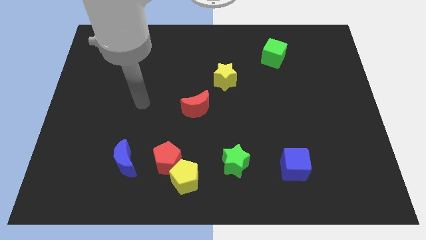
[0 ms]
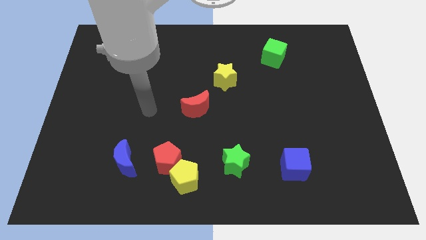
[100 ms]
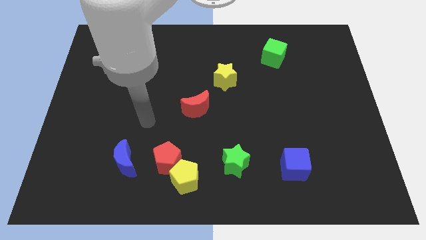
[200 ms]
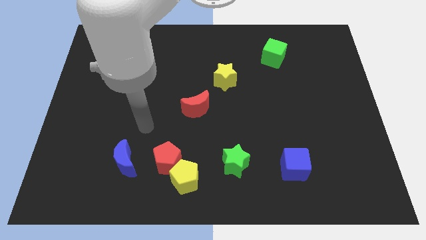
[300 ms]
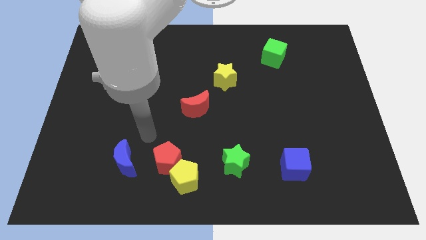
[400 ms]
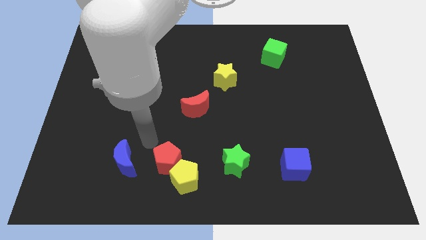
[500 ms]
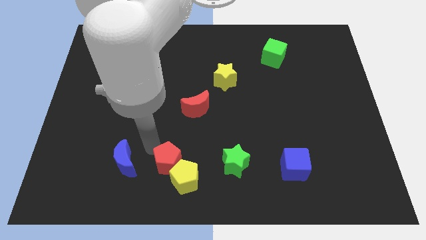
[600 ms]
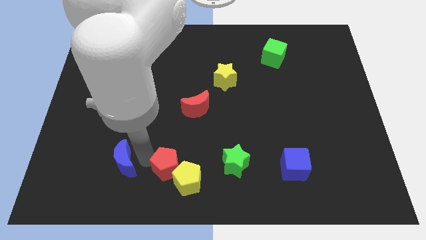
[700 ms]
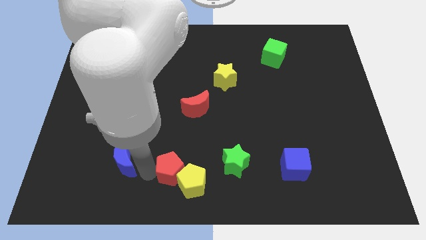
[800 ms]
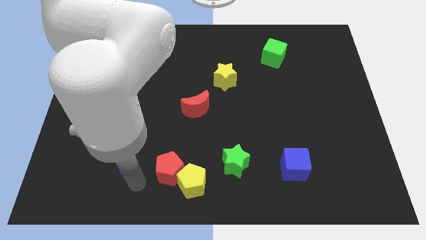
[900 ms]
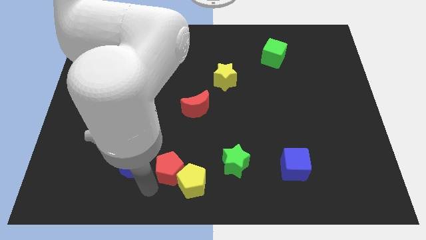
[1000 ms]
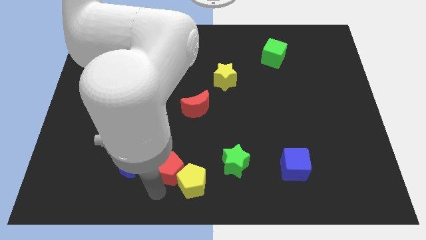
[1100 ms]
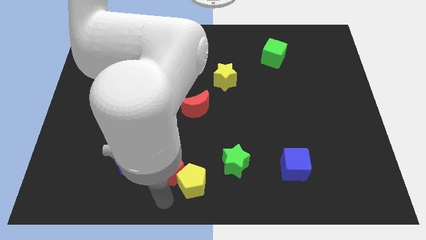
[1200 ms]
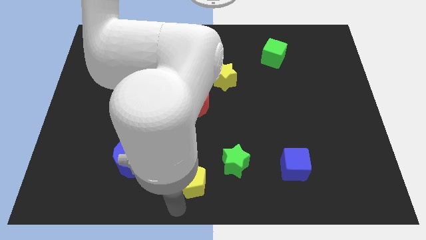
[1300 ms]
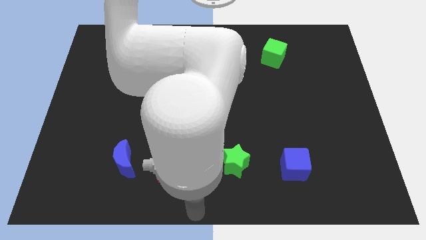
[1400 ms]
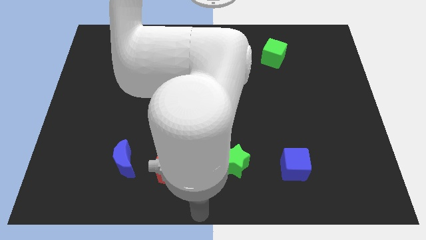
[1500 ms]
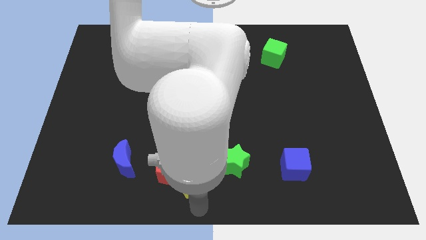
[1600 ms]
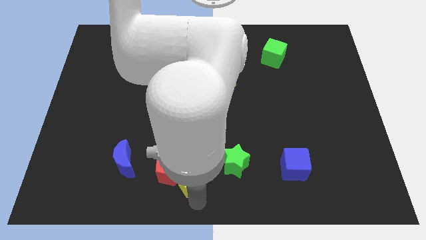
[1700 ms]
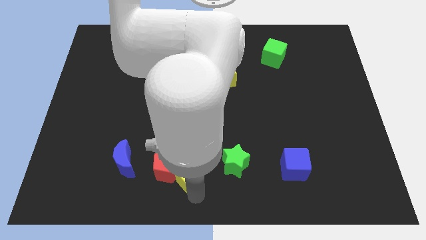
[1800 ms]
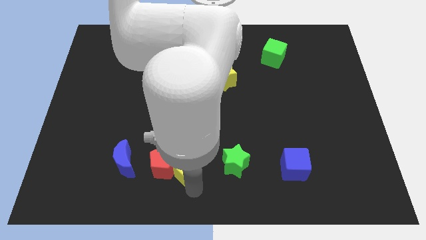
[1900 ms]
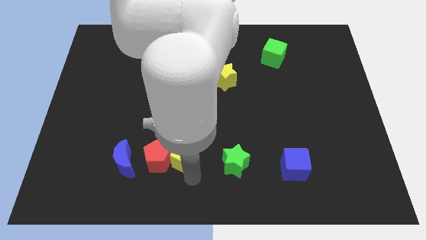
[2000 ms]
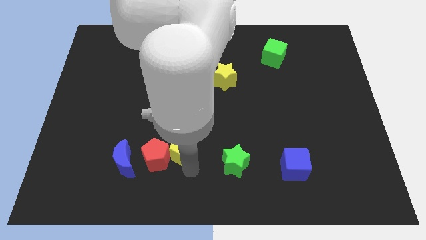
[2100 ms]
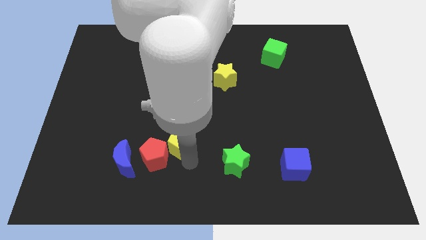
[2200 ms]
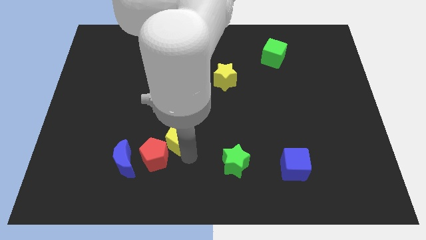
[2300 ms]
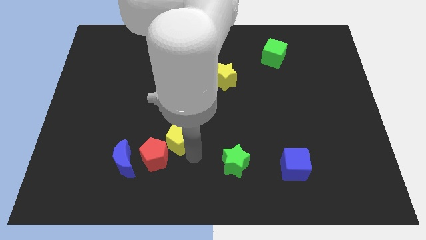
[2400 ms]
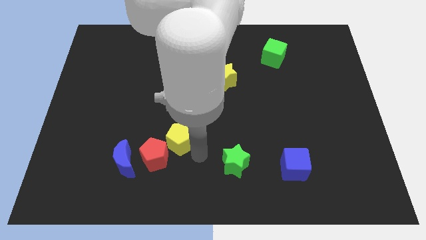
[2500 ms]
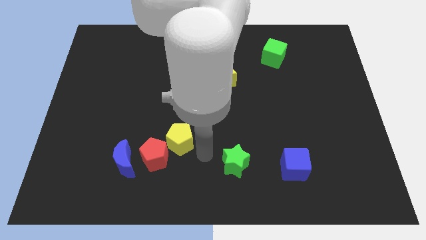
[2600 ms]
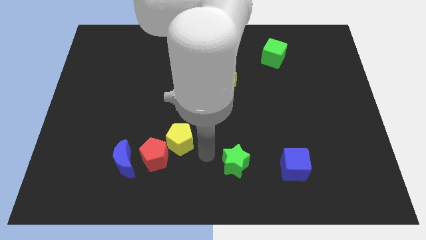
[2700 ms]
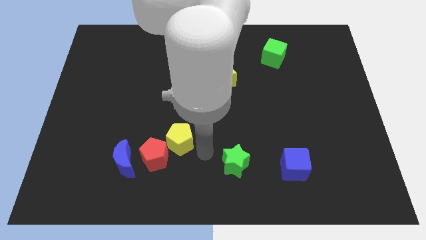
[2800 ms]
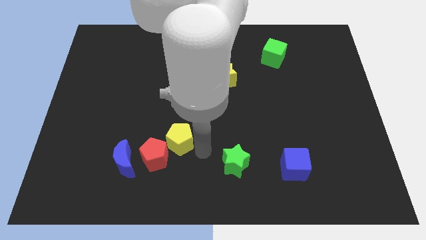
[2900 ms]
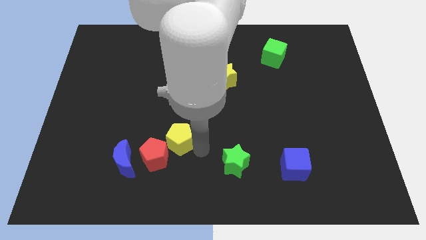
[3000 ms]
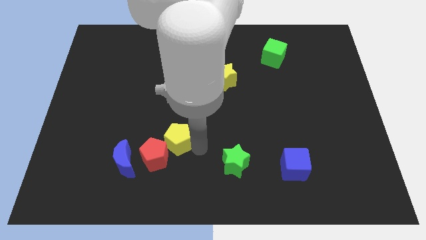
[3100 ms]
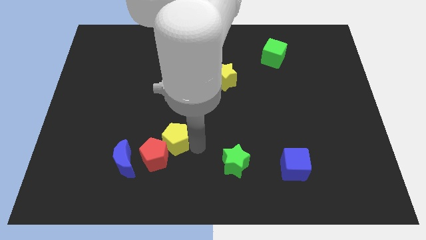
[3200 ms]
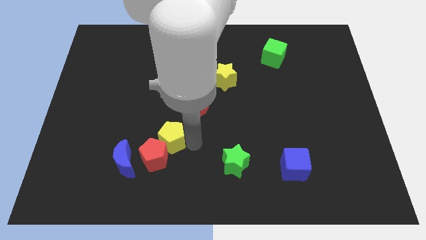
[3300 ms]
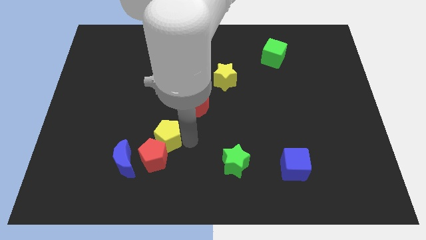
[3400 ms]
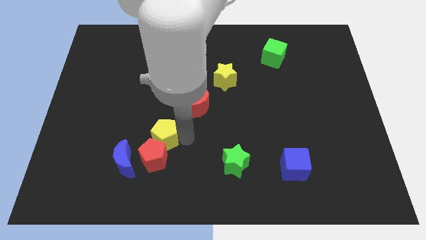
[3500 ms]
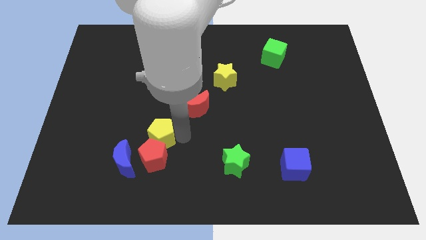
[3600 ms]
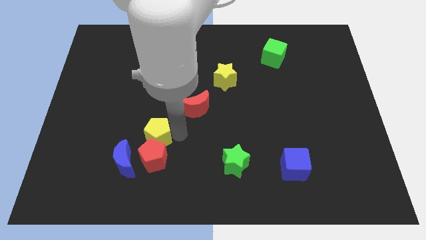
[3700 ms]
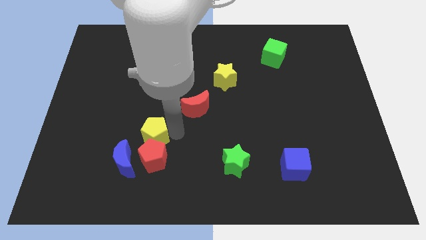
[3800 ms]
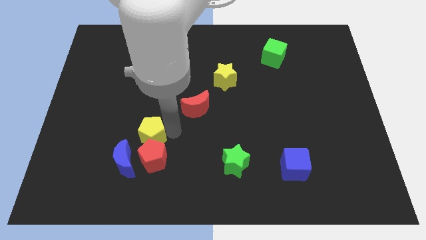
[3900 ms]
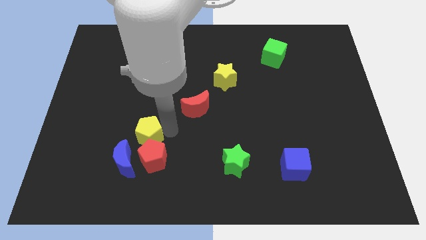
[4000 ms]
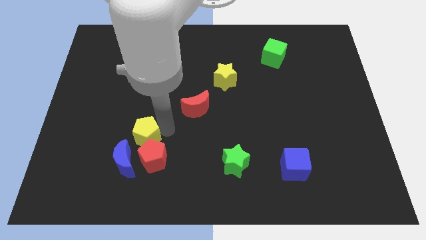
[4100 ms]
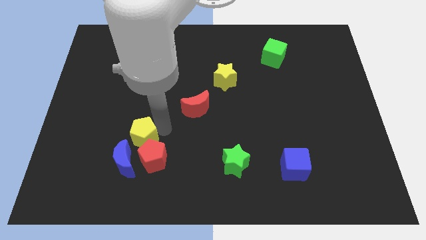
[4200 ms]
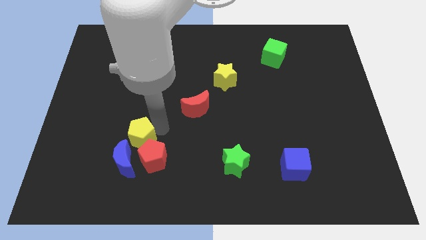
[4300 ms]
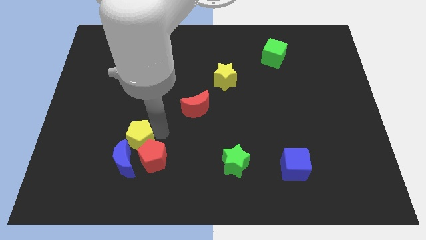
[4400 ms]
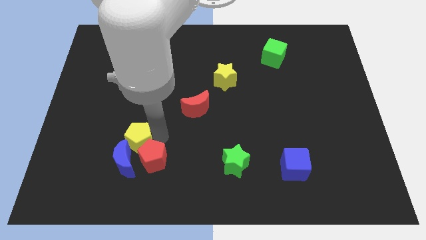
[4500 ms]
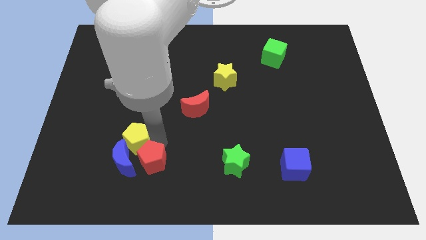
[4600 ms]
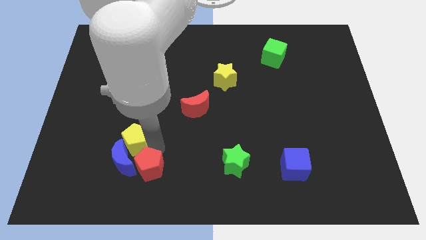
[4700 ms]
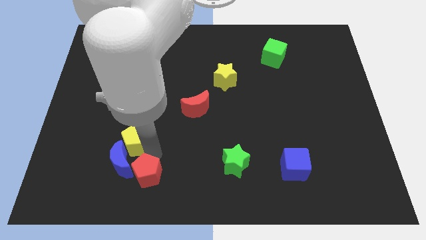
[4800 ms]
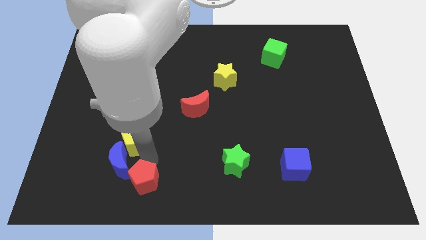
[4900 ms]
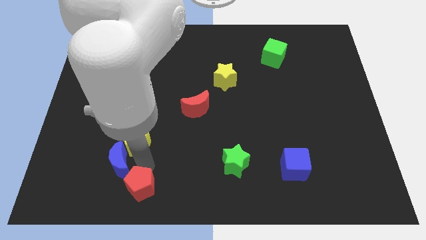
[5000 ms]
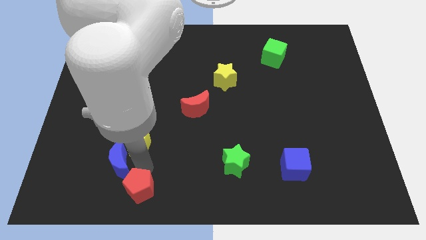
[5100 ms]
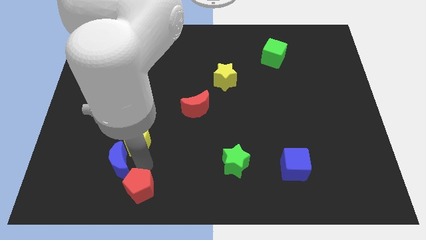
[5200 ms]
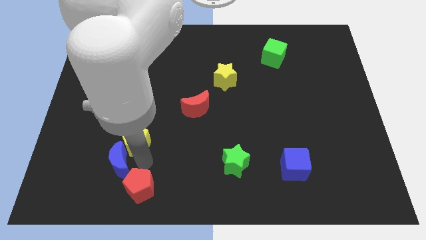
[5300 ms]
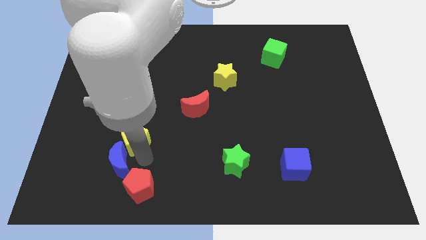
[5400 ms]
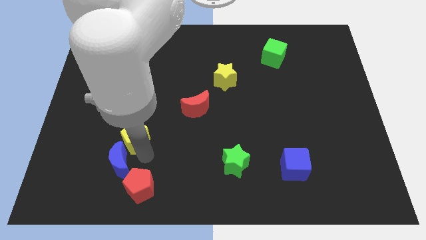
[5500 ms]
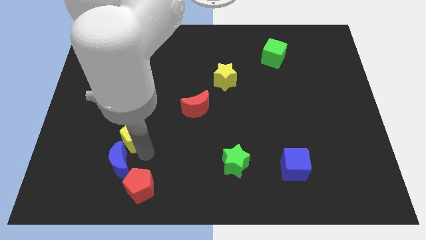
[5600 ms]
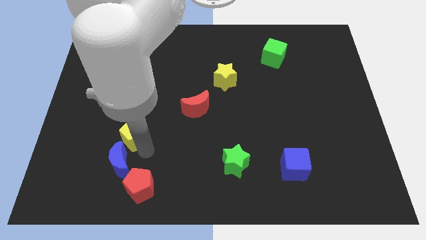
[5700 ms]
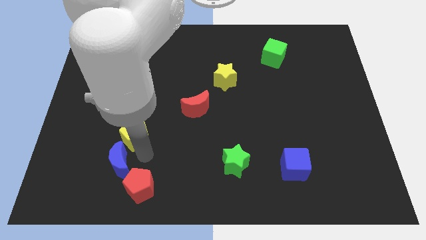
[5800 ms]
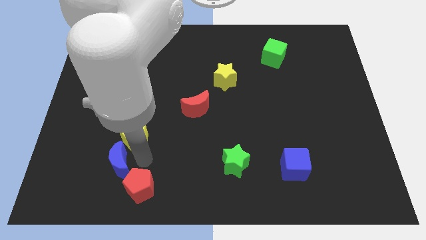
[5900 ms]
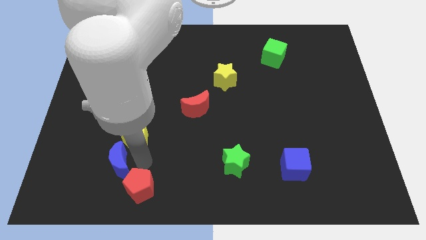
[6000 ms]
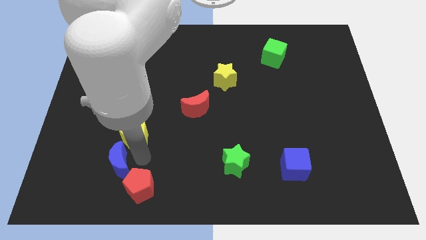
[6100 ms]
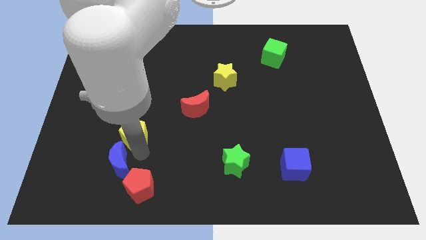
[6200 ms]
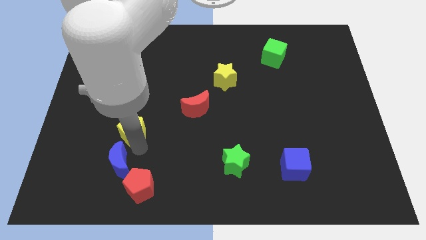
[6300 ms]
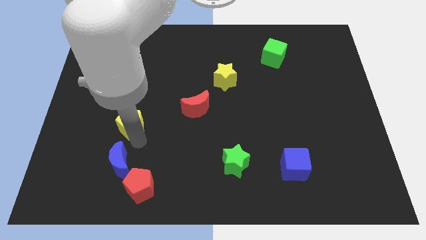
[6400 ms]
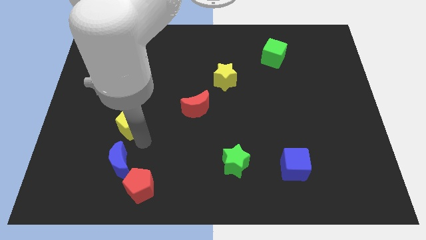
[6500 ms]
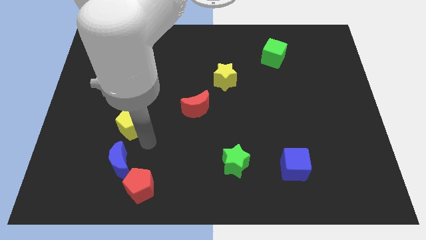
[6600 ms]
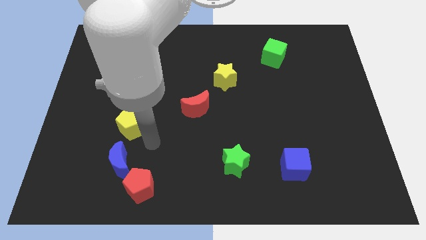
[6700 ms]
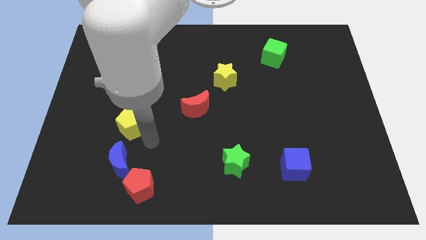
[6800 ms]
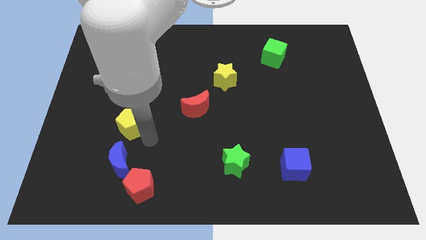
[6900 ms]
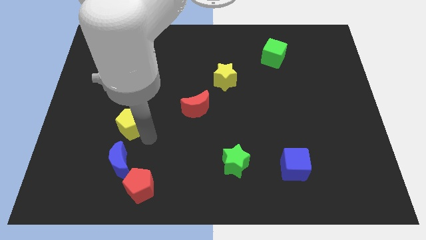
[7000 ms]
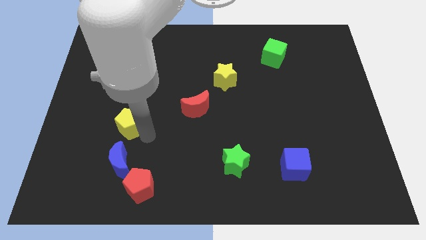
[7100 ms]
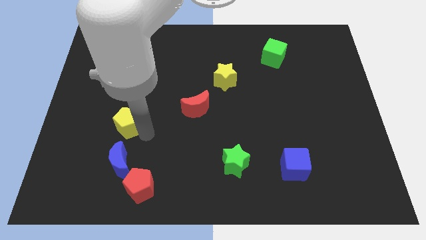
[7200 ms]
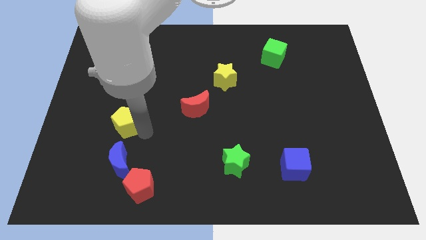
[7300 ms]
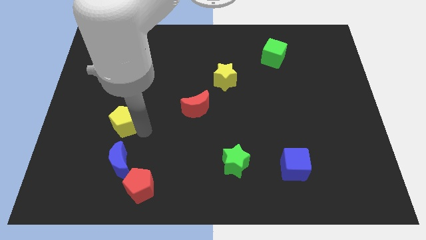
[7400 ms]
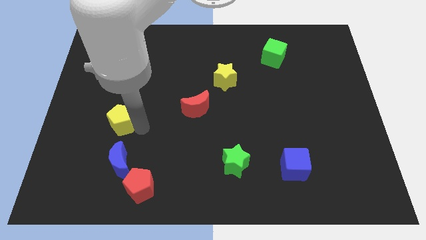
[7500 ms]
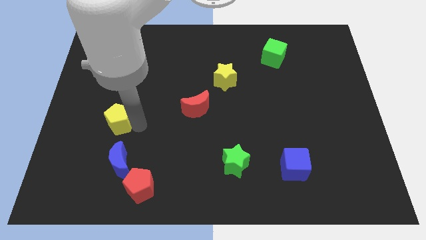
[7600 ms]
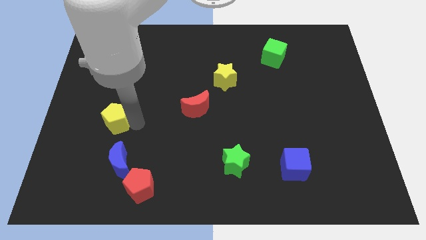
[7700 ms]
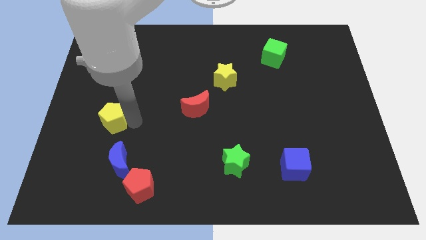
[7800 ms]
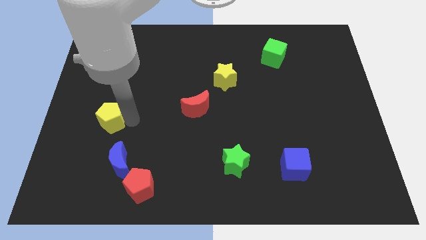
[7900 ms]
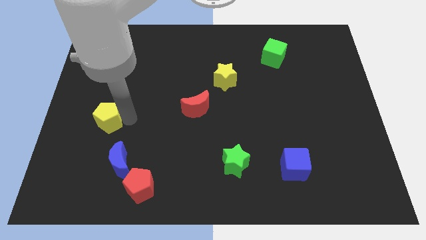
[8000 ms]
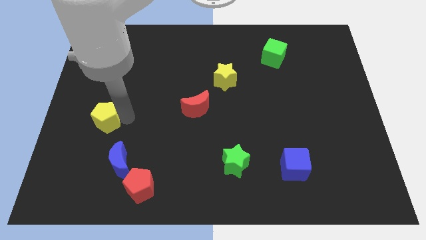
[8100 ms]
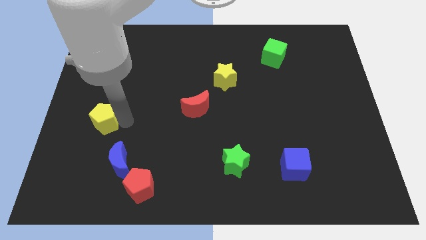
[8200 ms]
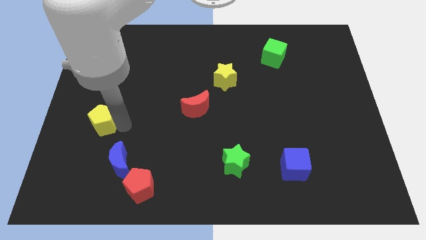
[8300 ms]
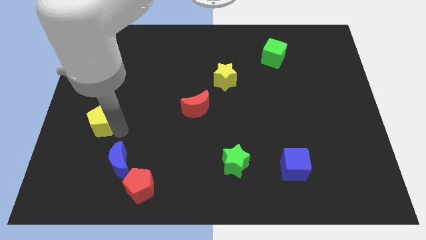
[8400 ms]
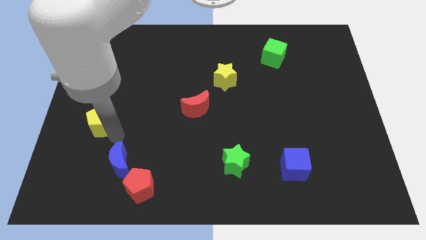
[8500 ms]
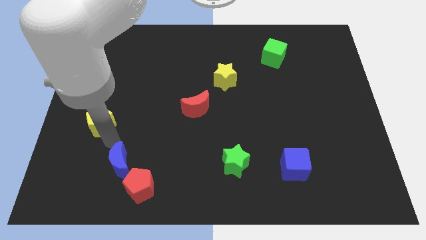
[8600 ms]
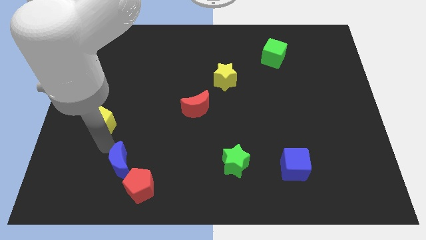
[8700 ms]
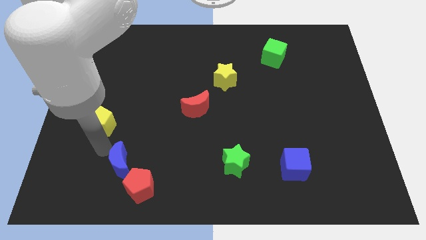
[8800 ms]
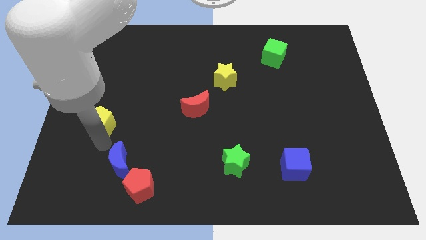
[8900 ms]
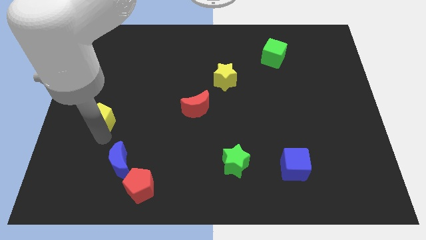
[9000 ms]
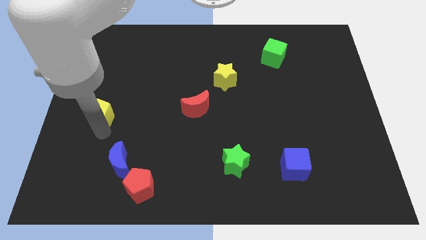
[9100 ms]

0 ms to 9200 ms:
put the yellow pentagon to the left side of the board
